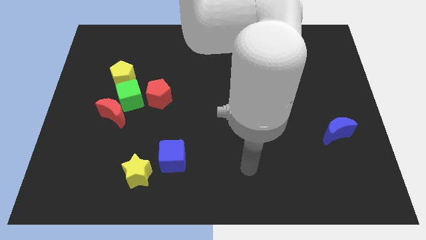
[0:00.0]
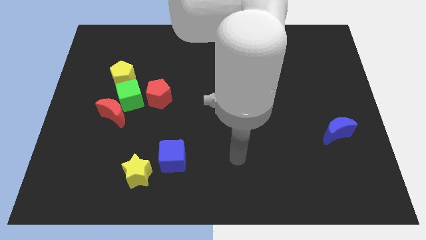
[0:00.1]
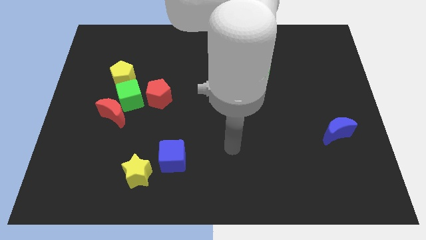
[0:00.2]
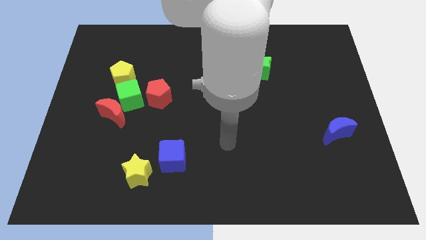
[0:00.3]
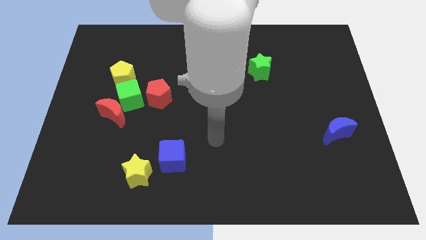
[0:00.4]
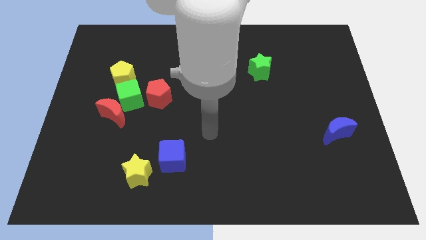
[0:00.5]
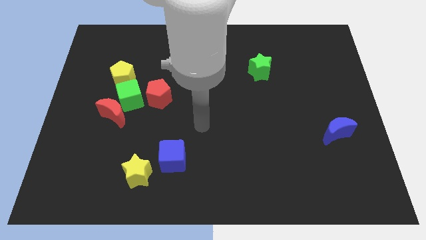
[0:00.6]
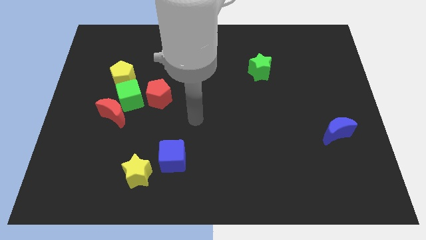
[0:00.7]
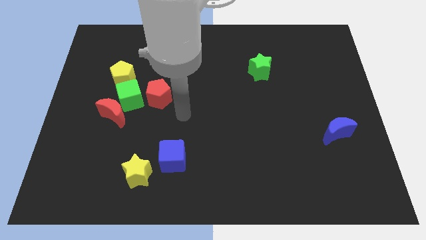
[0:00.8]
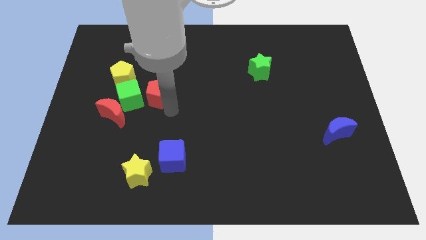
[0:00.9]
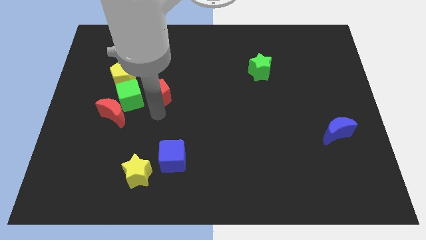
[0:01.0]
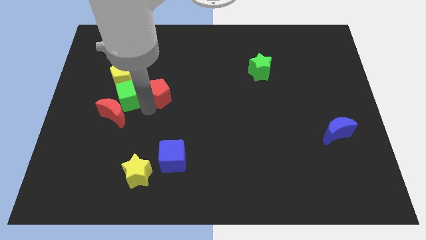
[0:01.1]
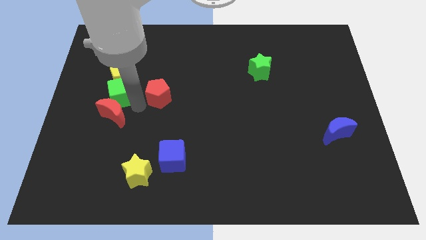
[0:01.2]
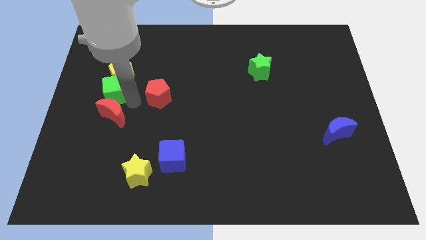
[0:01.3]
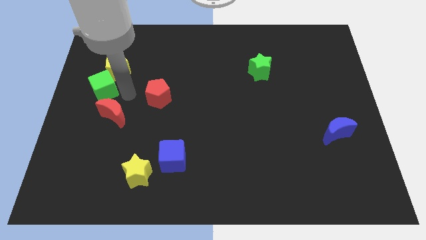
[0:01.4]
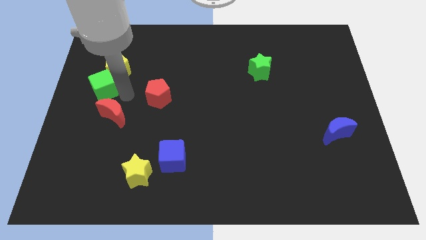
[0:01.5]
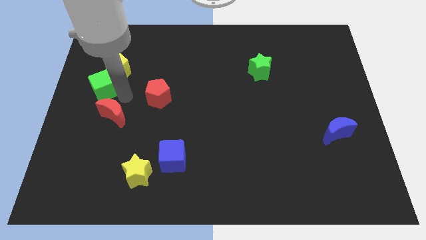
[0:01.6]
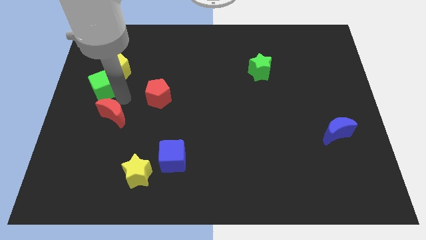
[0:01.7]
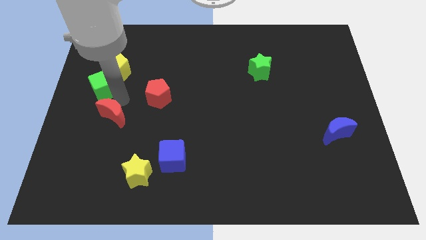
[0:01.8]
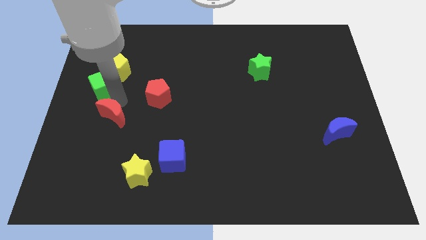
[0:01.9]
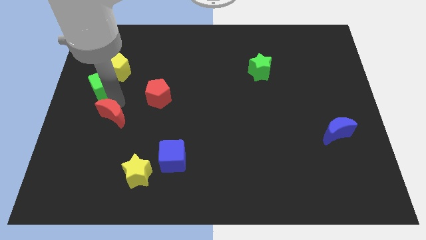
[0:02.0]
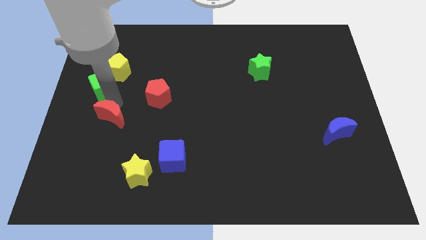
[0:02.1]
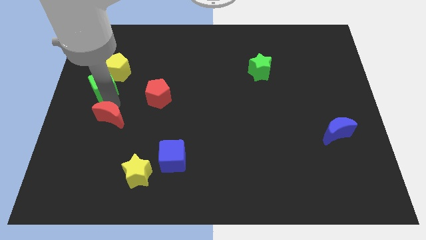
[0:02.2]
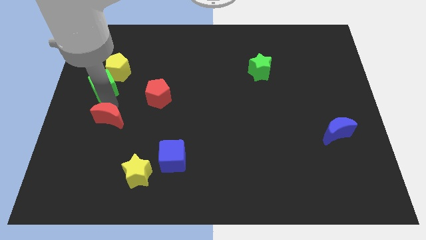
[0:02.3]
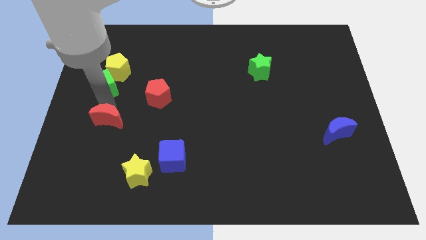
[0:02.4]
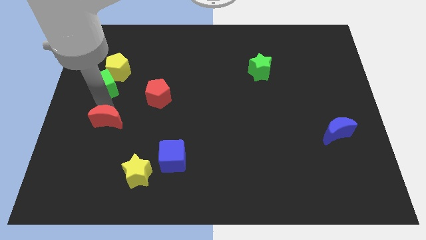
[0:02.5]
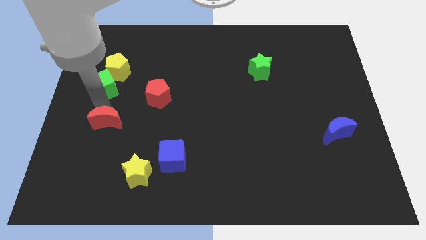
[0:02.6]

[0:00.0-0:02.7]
separate the red moon from the green cube

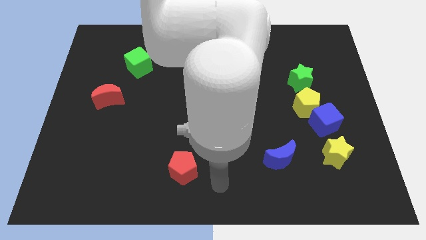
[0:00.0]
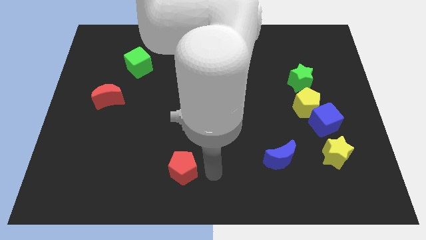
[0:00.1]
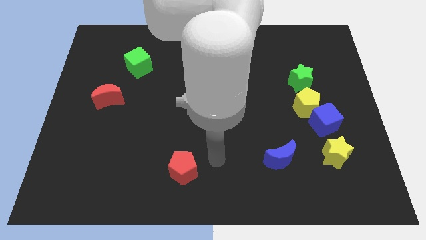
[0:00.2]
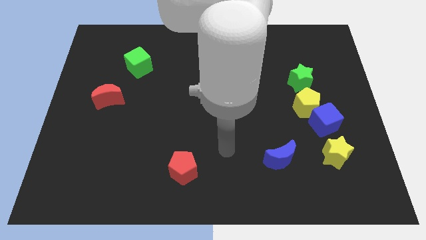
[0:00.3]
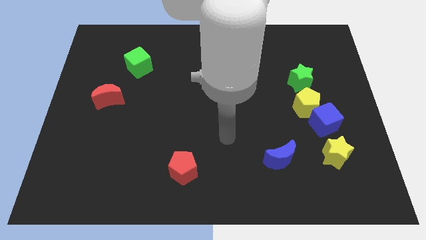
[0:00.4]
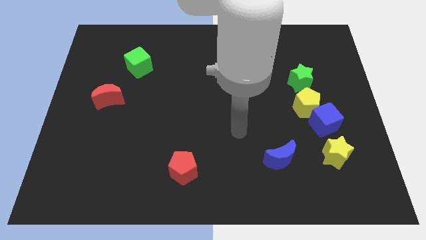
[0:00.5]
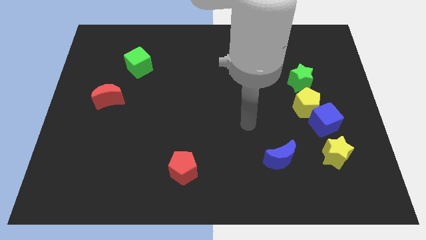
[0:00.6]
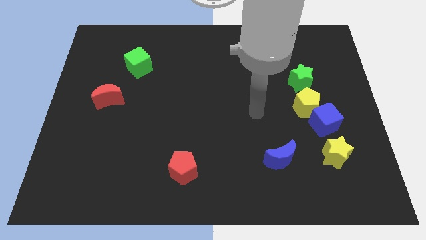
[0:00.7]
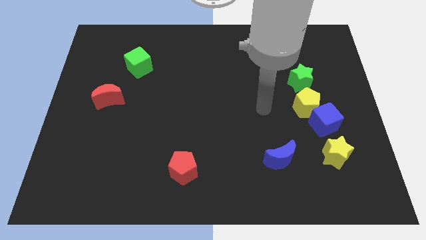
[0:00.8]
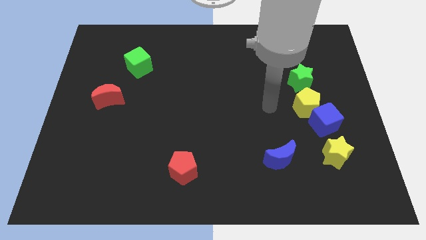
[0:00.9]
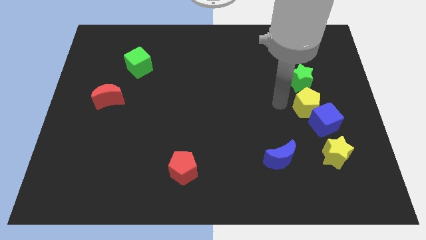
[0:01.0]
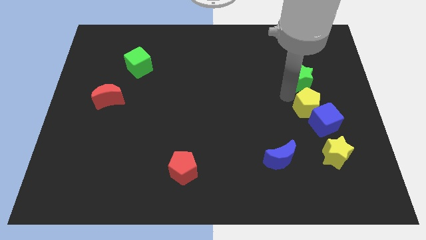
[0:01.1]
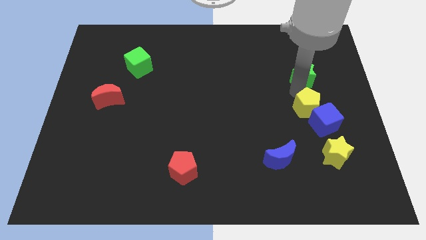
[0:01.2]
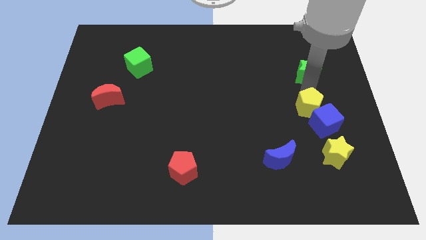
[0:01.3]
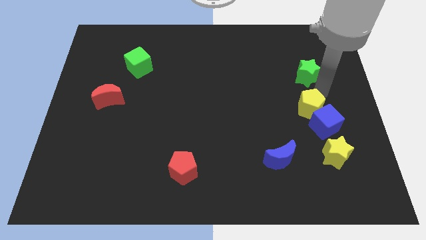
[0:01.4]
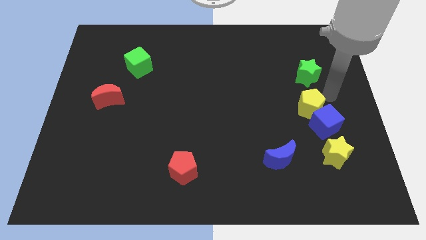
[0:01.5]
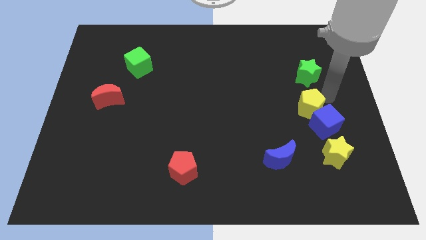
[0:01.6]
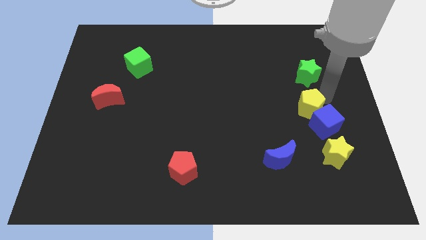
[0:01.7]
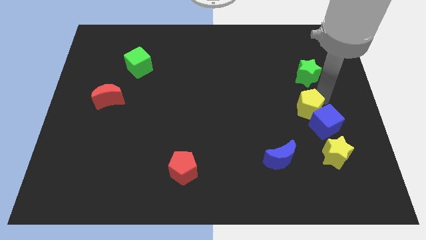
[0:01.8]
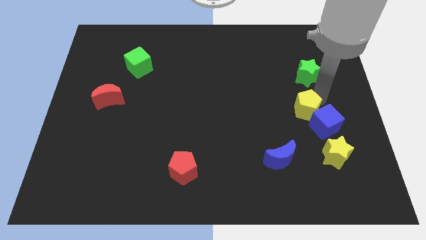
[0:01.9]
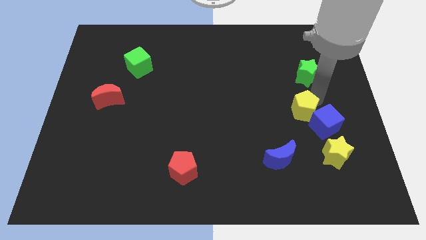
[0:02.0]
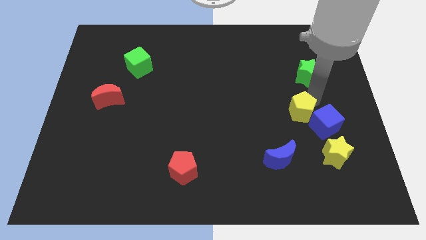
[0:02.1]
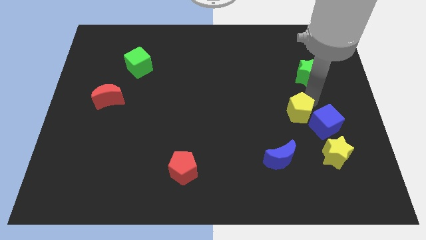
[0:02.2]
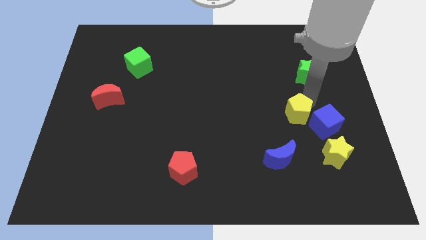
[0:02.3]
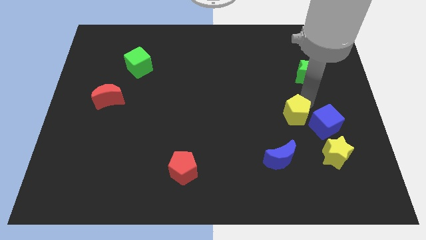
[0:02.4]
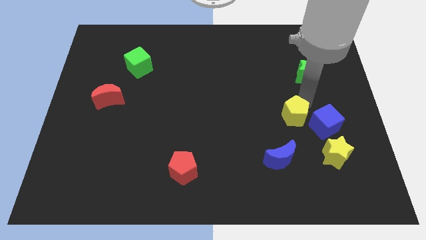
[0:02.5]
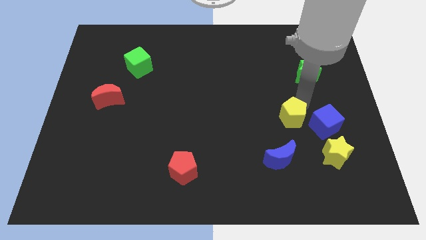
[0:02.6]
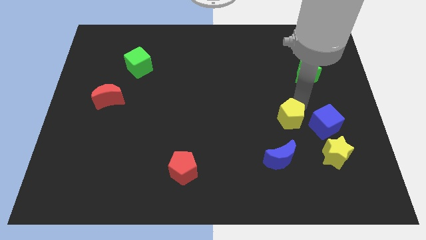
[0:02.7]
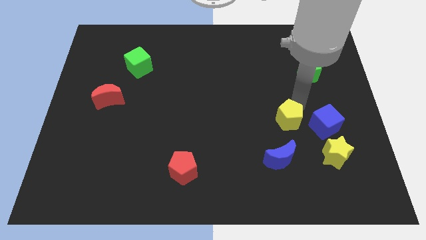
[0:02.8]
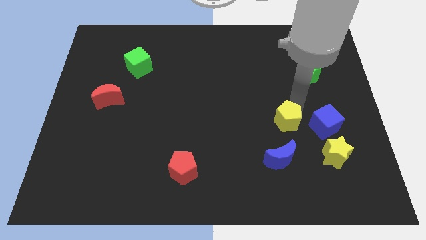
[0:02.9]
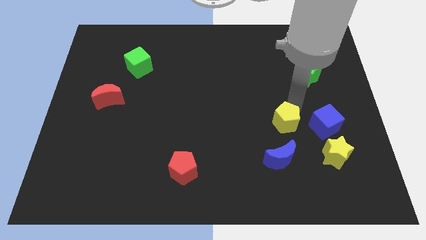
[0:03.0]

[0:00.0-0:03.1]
separate the yellow pentagon from the blue cube and green star

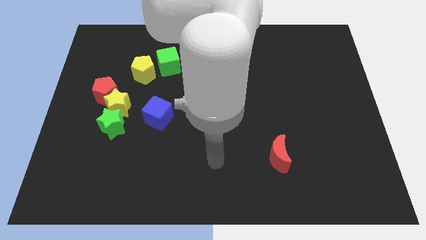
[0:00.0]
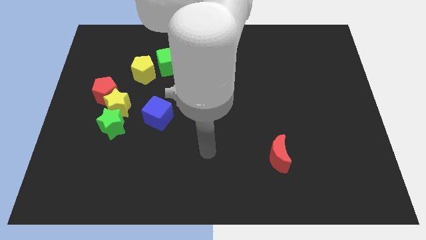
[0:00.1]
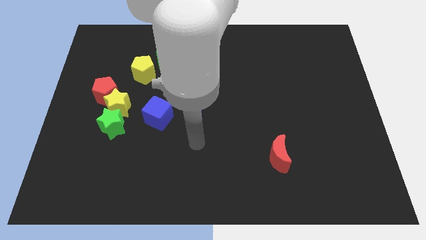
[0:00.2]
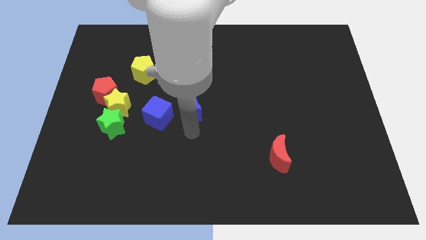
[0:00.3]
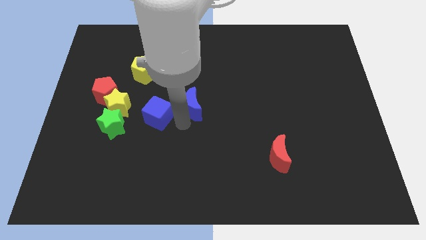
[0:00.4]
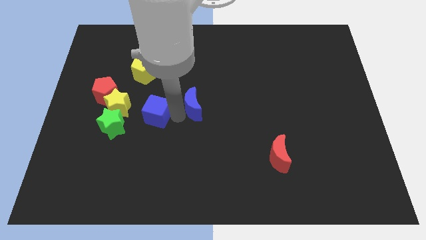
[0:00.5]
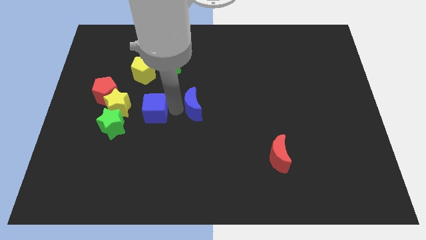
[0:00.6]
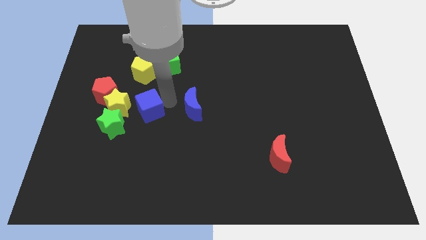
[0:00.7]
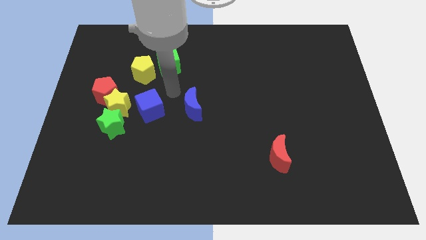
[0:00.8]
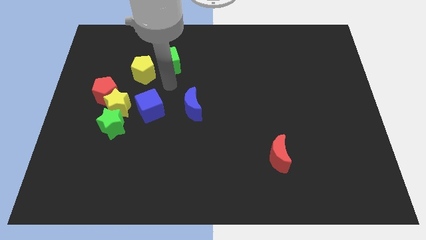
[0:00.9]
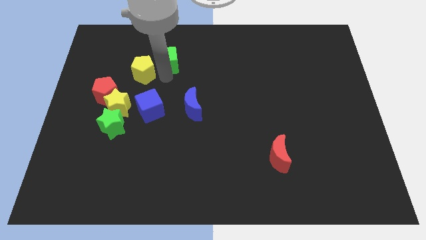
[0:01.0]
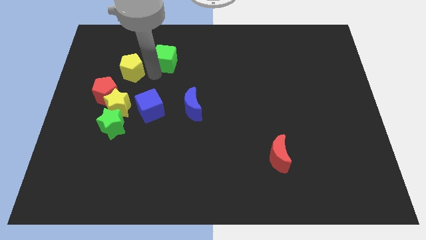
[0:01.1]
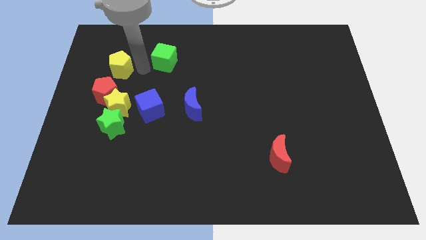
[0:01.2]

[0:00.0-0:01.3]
pull the green cube apart from the yellow pentagon

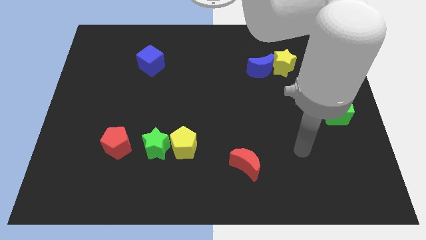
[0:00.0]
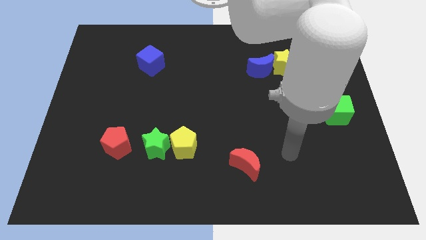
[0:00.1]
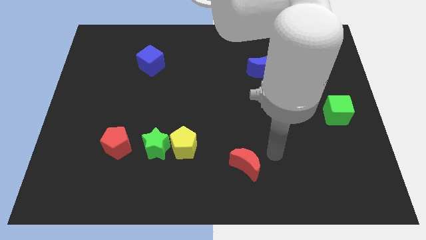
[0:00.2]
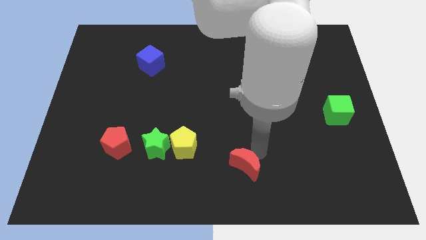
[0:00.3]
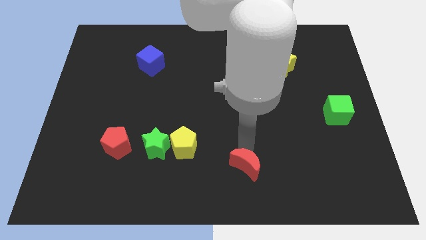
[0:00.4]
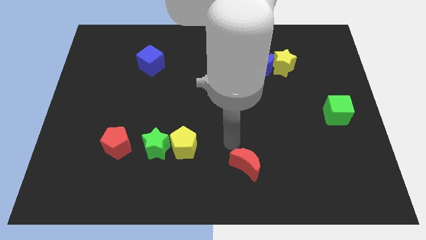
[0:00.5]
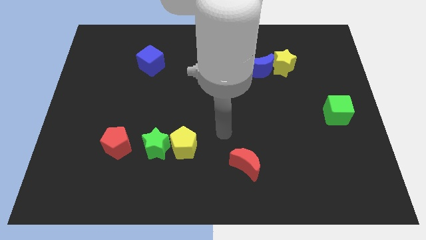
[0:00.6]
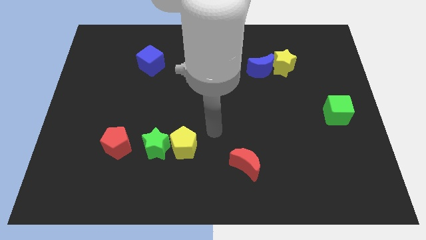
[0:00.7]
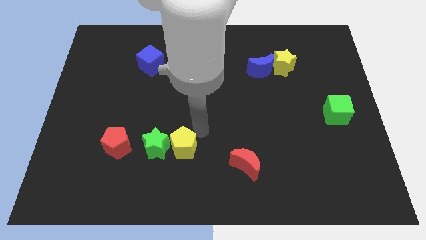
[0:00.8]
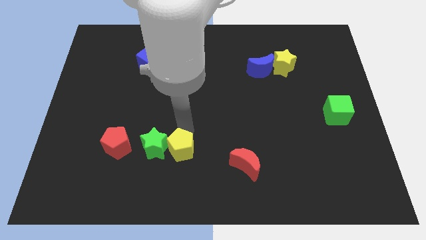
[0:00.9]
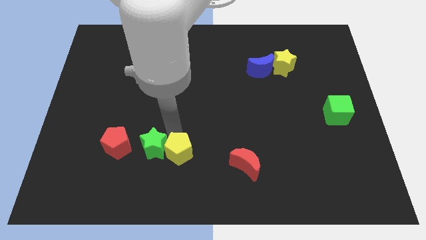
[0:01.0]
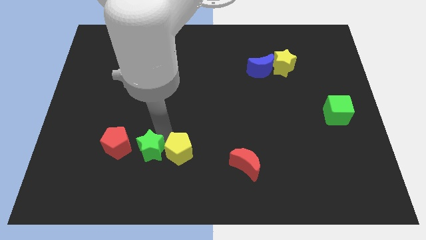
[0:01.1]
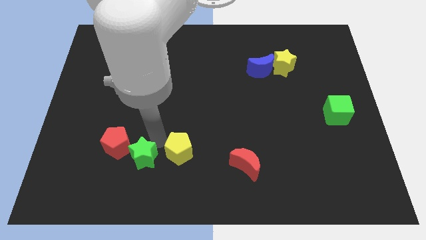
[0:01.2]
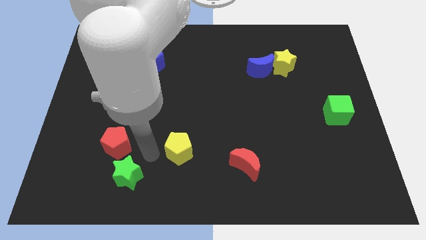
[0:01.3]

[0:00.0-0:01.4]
separate the yellow pentagon from the green star

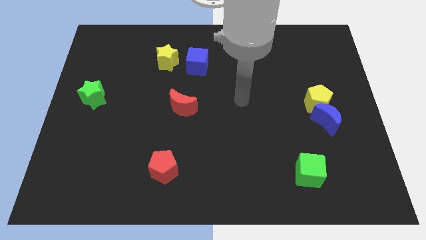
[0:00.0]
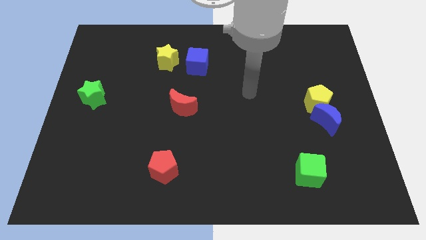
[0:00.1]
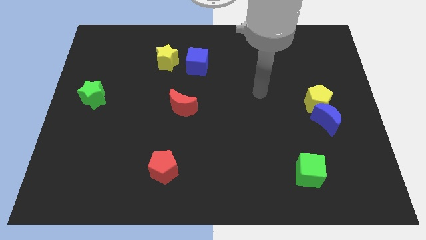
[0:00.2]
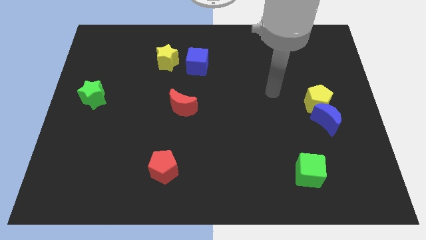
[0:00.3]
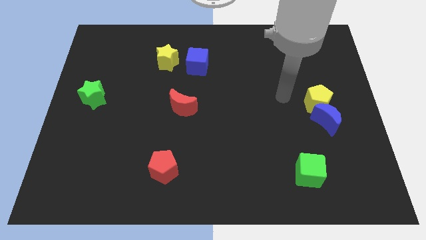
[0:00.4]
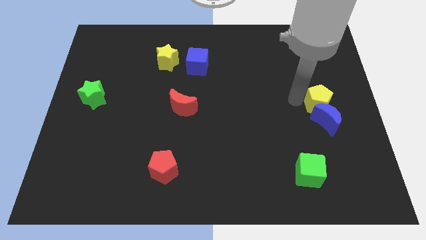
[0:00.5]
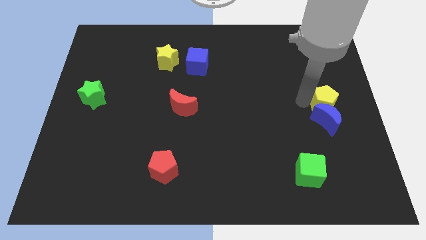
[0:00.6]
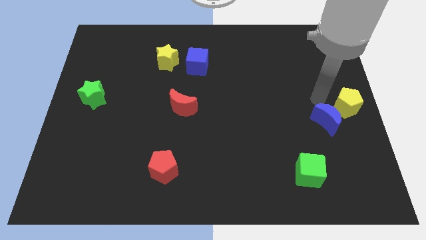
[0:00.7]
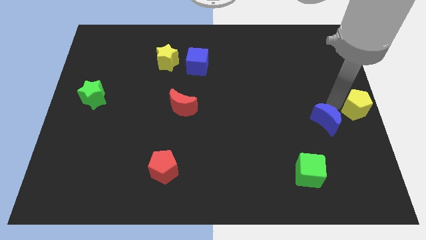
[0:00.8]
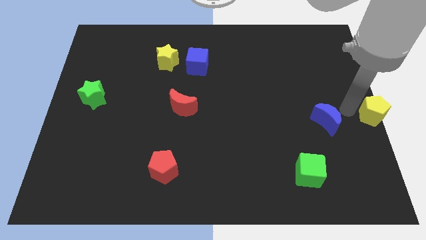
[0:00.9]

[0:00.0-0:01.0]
pull the blue moon apart from the yellow pentagon
